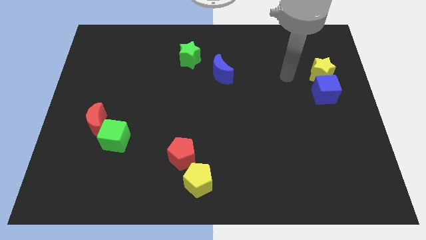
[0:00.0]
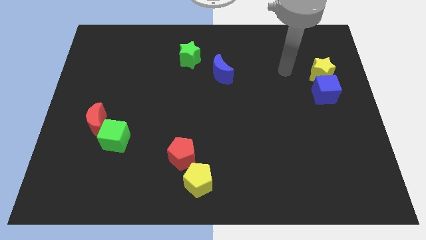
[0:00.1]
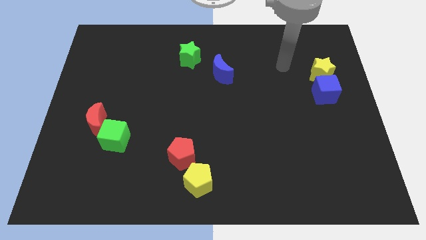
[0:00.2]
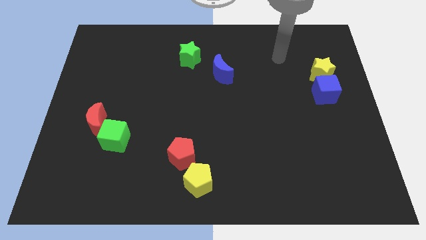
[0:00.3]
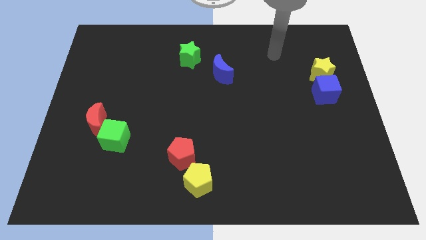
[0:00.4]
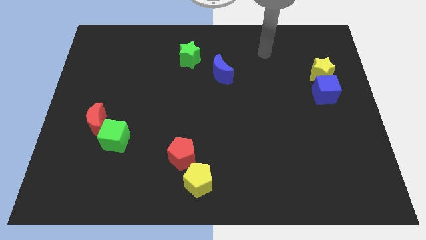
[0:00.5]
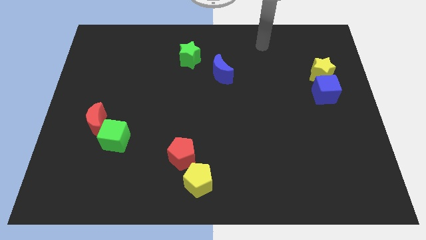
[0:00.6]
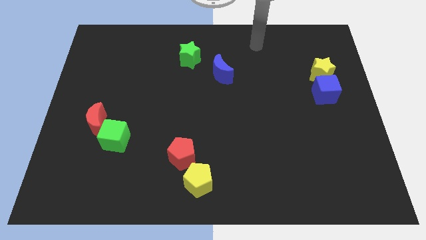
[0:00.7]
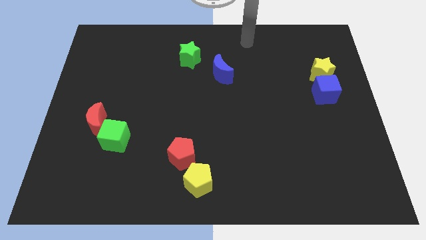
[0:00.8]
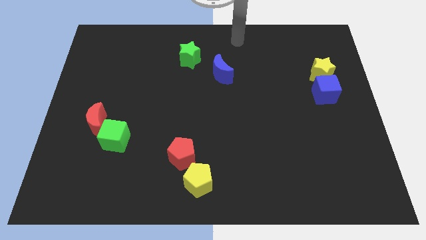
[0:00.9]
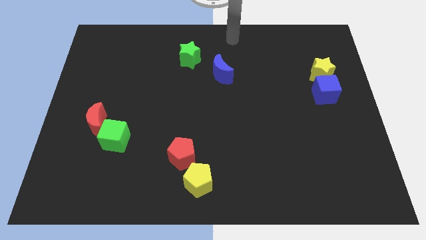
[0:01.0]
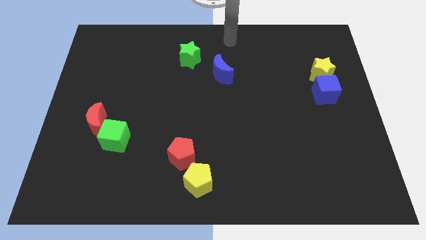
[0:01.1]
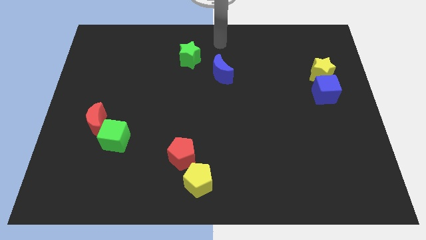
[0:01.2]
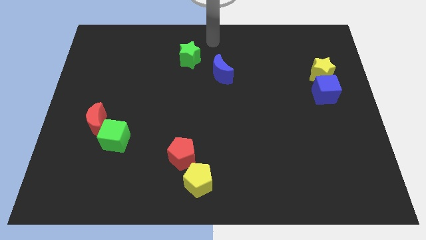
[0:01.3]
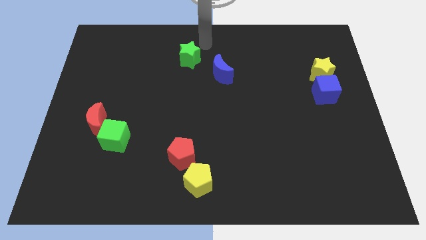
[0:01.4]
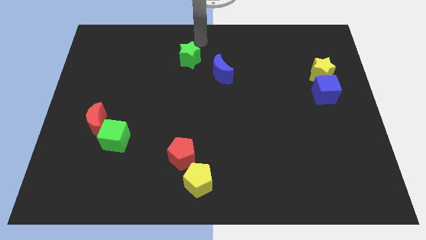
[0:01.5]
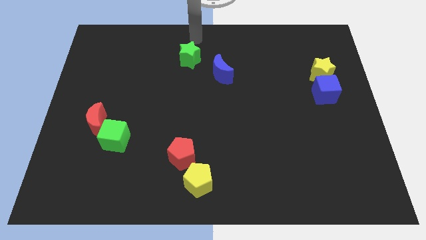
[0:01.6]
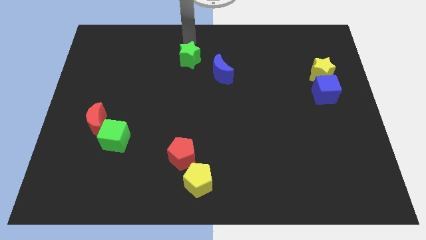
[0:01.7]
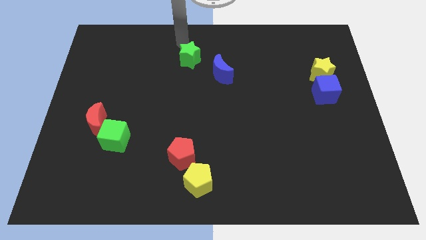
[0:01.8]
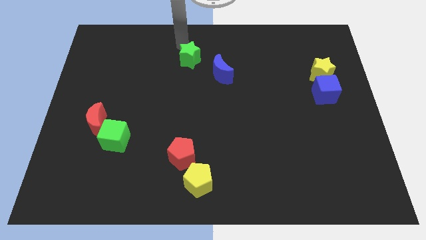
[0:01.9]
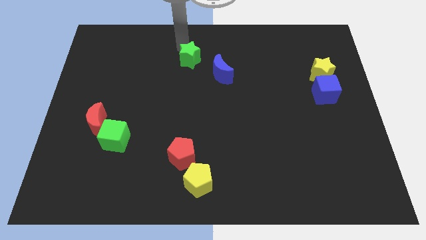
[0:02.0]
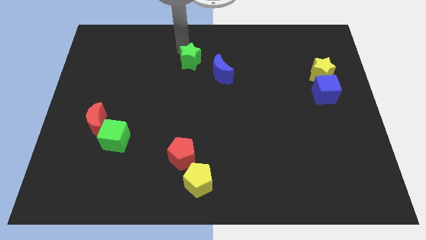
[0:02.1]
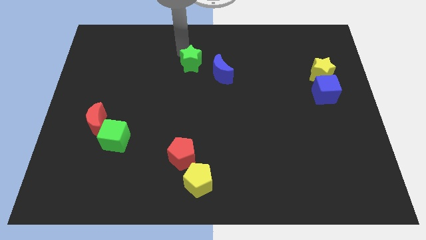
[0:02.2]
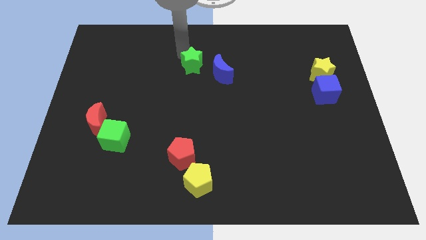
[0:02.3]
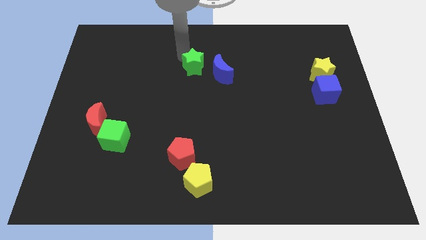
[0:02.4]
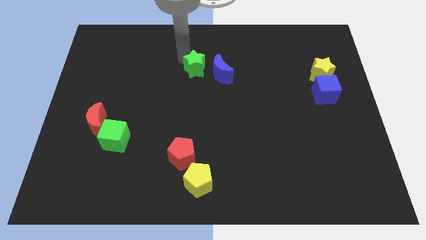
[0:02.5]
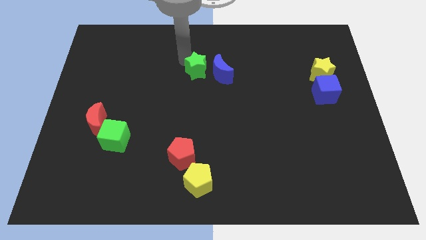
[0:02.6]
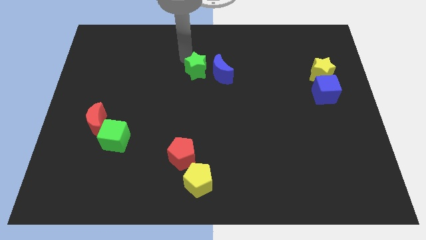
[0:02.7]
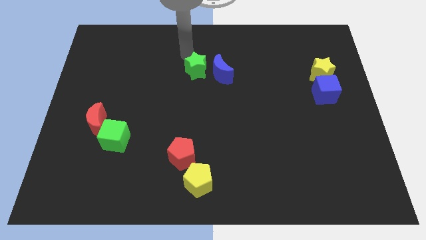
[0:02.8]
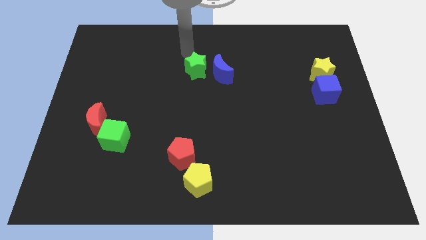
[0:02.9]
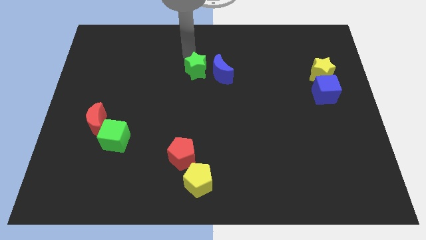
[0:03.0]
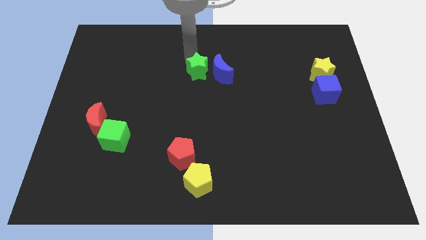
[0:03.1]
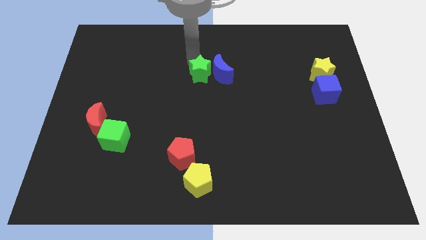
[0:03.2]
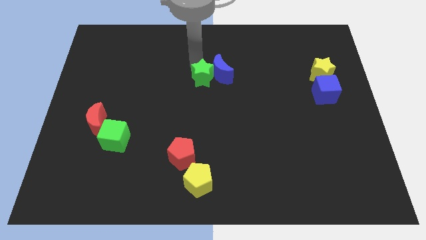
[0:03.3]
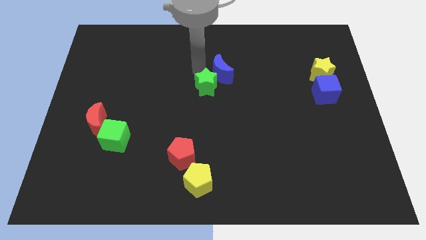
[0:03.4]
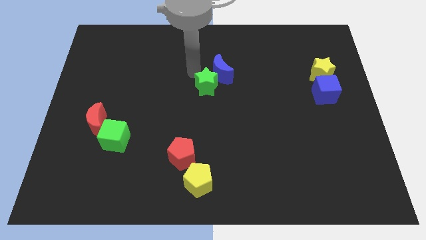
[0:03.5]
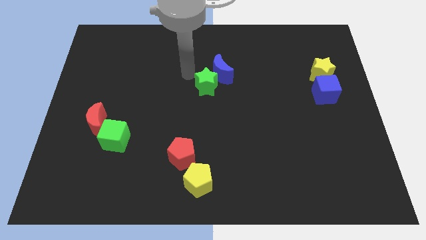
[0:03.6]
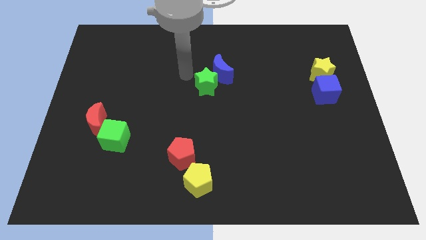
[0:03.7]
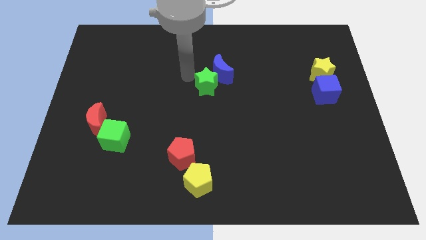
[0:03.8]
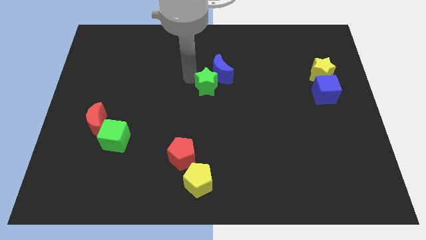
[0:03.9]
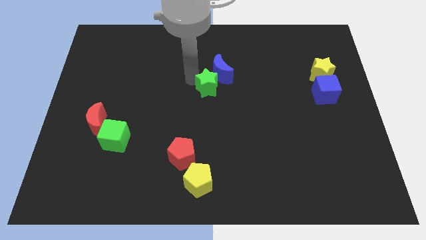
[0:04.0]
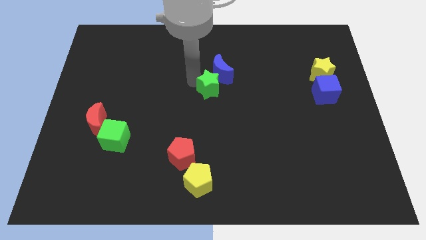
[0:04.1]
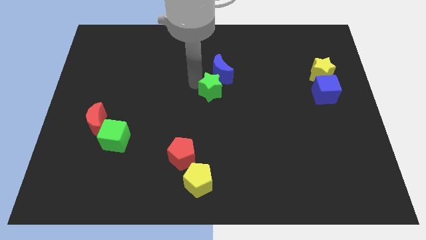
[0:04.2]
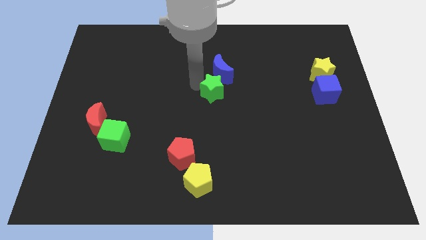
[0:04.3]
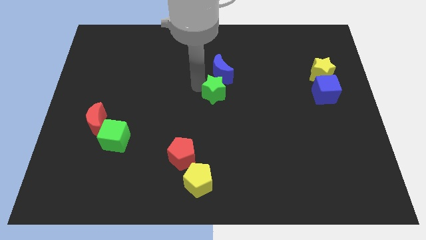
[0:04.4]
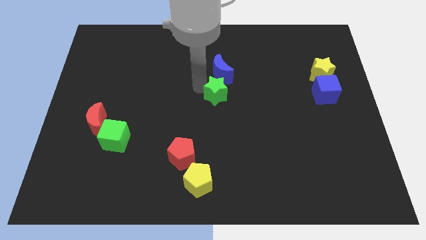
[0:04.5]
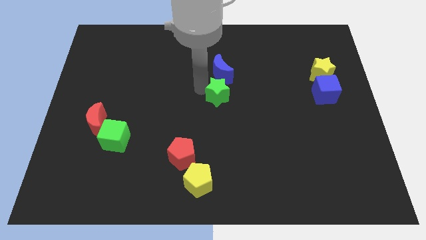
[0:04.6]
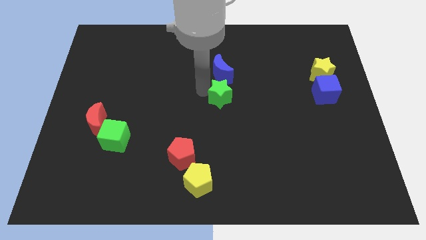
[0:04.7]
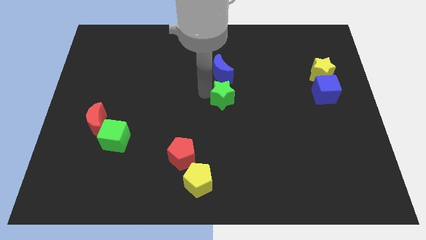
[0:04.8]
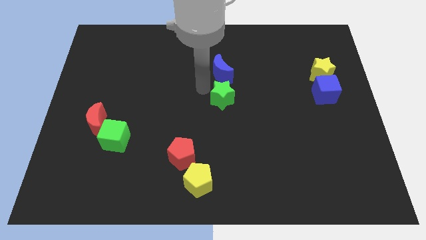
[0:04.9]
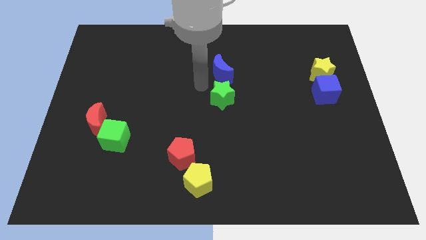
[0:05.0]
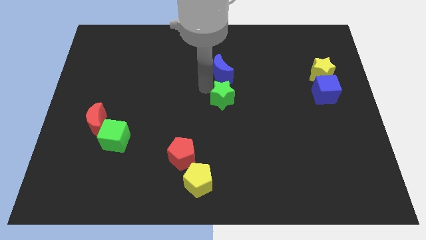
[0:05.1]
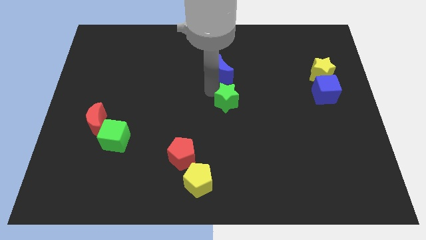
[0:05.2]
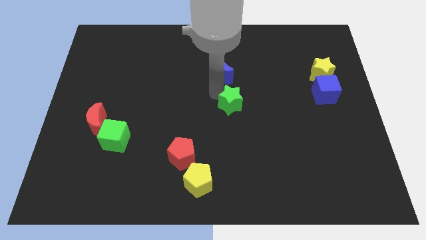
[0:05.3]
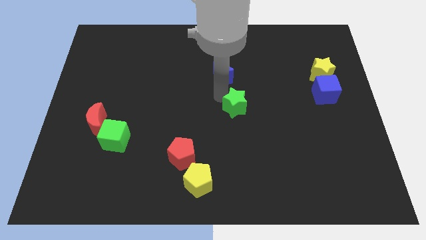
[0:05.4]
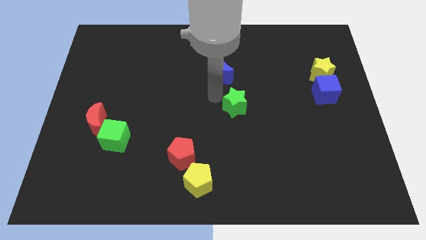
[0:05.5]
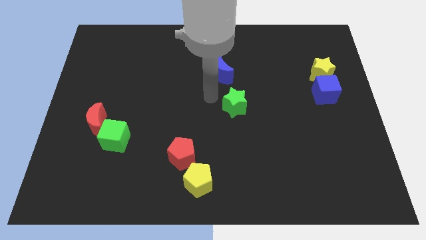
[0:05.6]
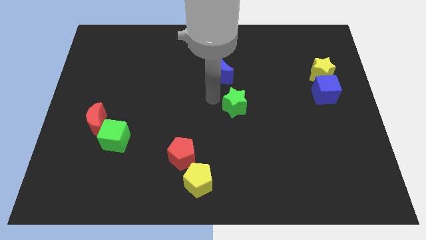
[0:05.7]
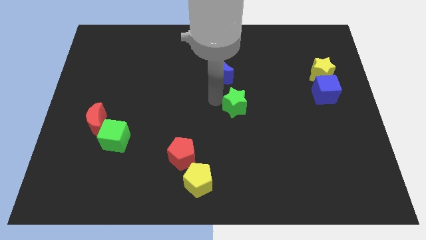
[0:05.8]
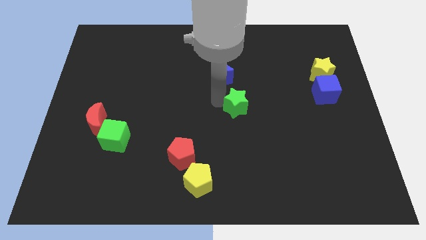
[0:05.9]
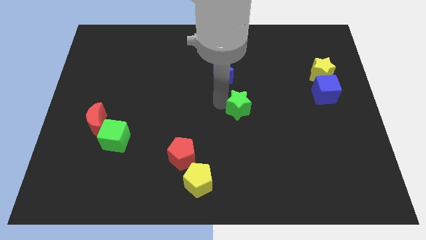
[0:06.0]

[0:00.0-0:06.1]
push the green star down and to the right diagonally

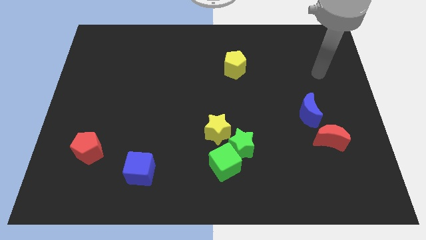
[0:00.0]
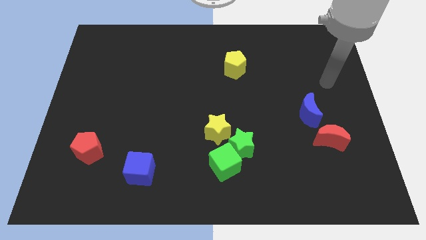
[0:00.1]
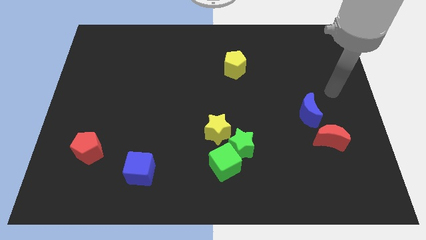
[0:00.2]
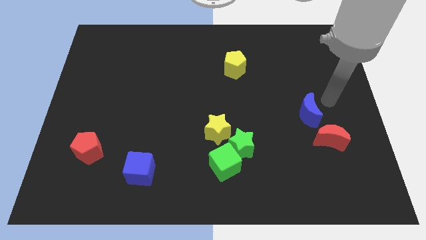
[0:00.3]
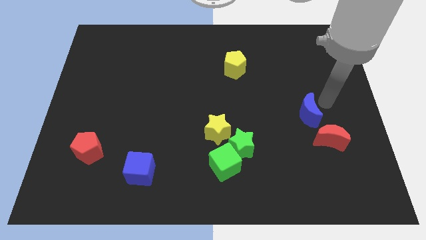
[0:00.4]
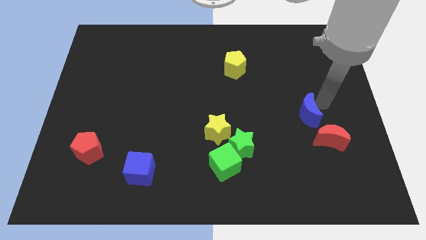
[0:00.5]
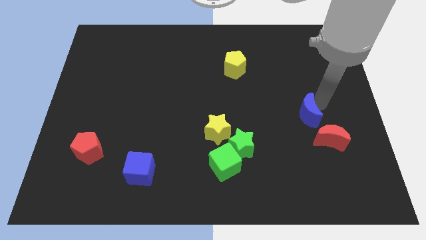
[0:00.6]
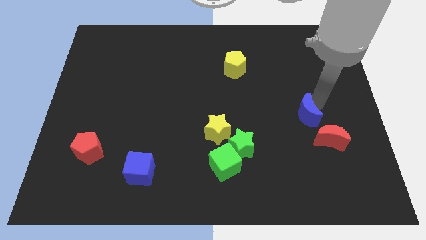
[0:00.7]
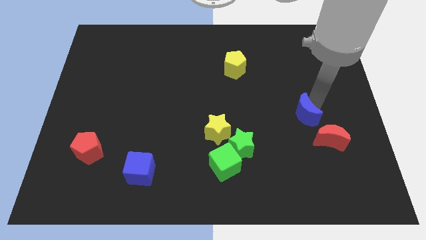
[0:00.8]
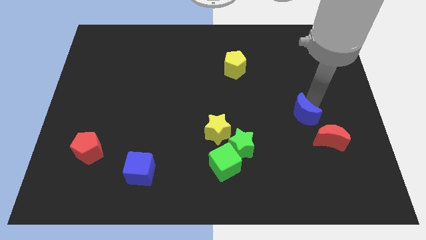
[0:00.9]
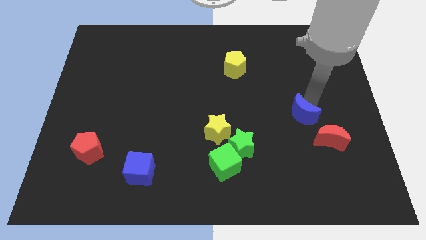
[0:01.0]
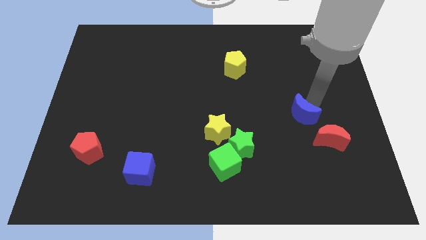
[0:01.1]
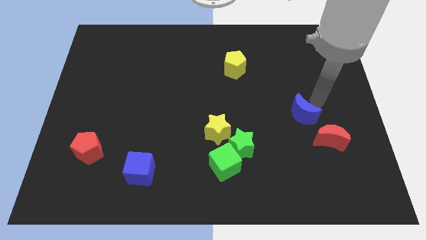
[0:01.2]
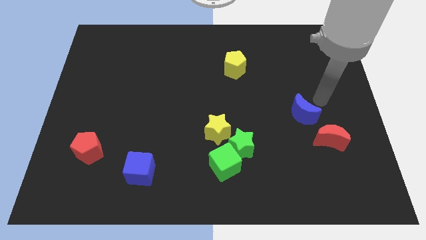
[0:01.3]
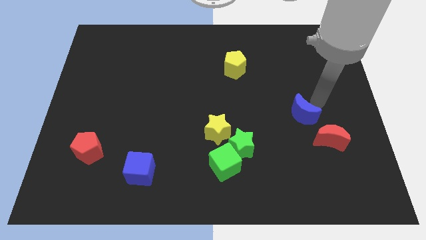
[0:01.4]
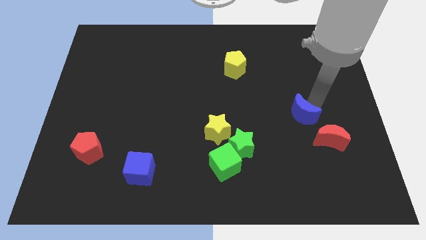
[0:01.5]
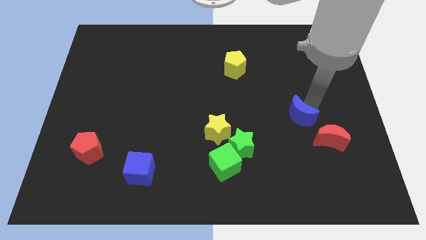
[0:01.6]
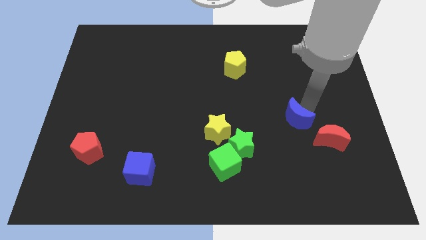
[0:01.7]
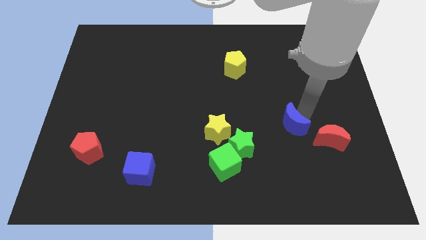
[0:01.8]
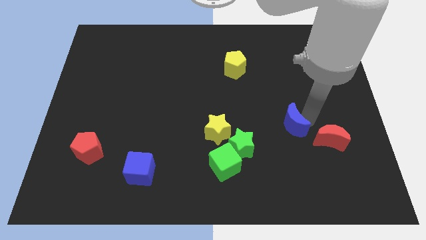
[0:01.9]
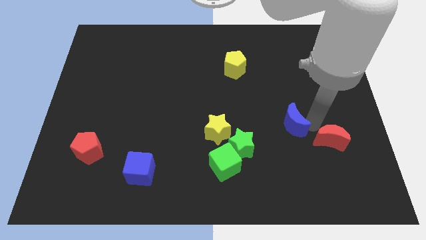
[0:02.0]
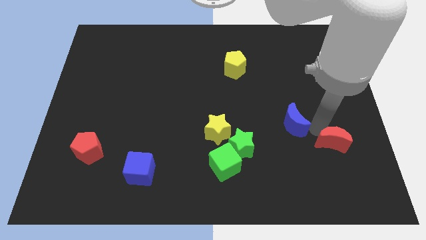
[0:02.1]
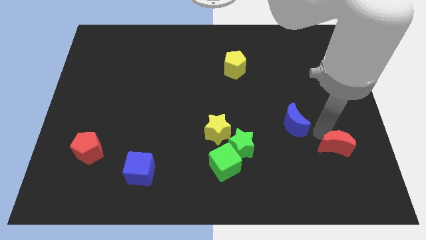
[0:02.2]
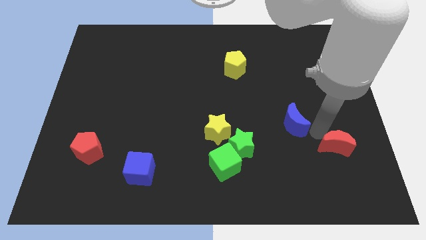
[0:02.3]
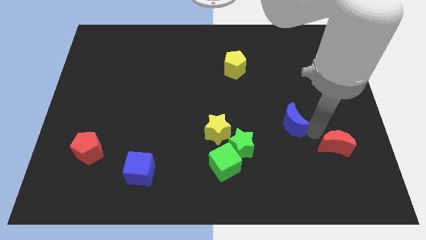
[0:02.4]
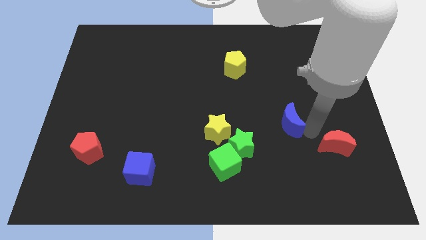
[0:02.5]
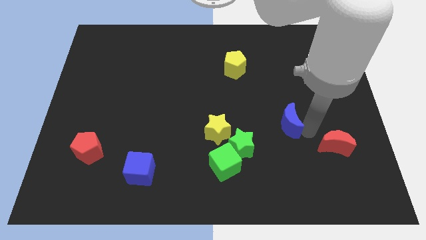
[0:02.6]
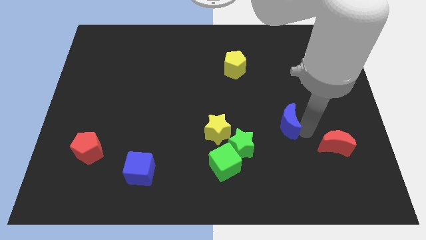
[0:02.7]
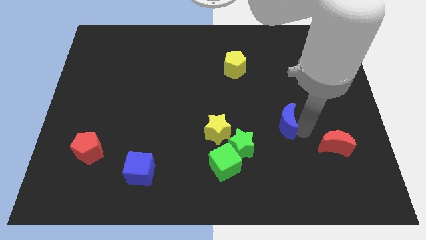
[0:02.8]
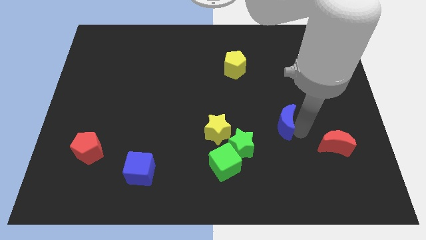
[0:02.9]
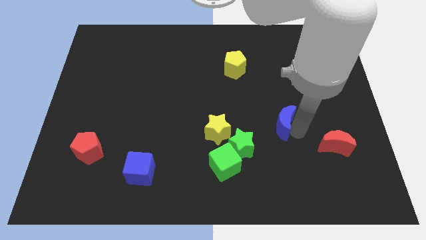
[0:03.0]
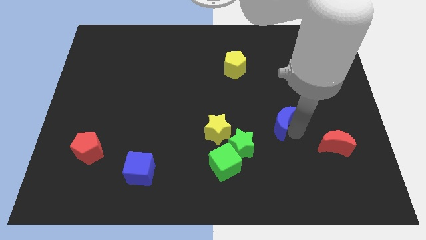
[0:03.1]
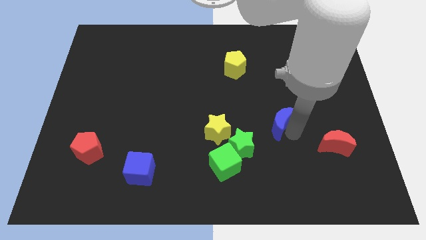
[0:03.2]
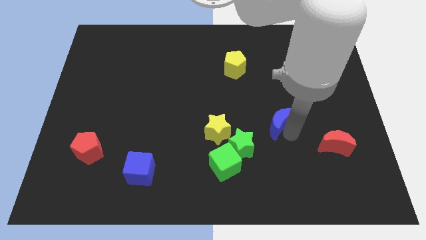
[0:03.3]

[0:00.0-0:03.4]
push the blue moon to the left a bit
